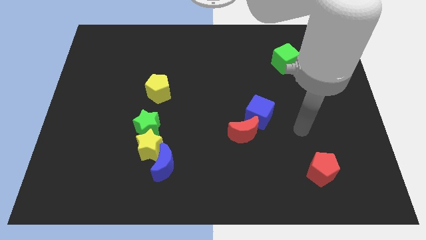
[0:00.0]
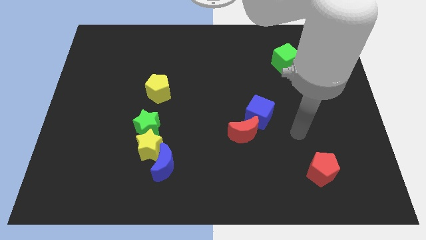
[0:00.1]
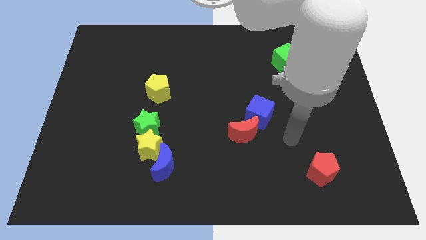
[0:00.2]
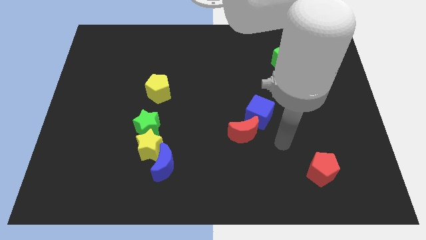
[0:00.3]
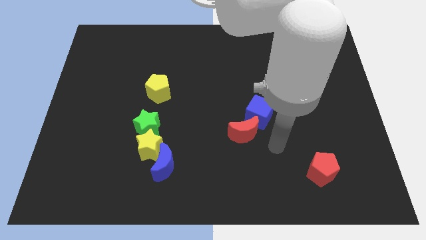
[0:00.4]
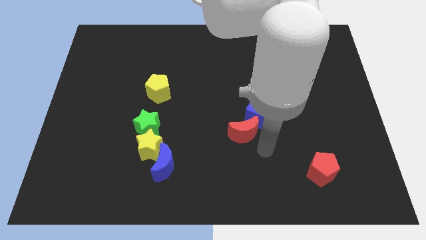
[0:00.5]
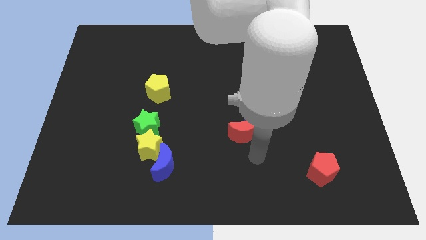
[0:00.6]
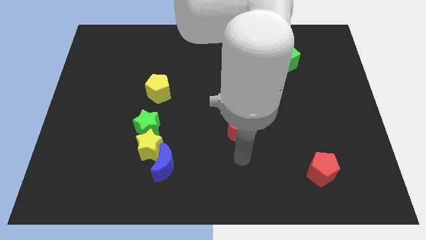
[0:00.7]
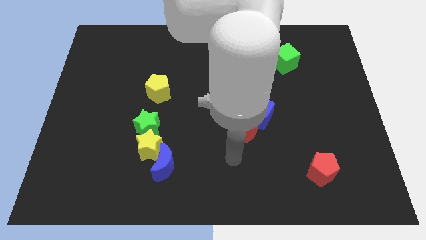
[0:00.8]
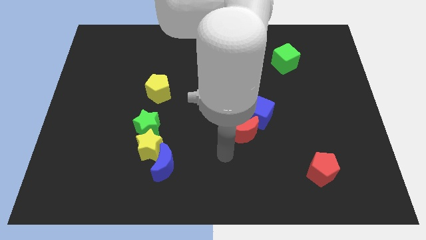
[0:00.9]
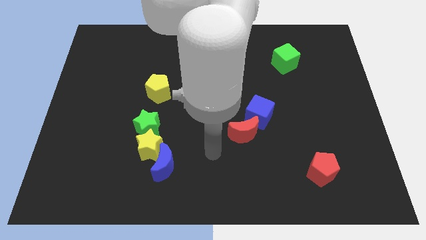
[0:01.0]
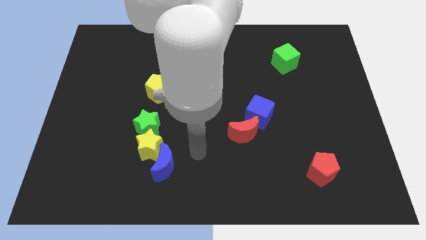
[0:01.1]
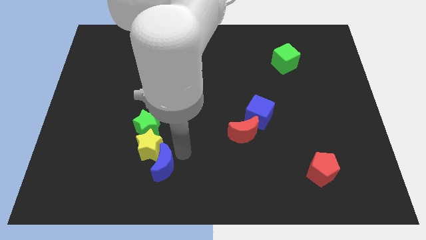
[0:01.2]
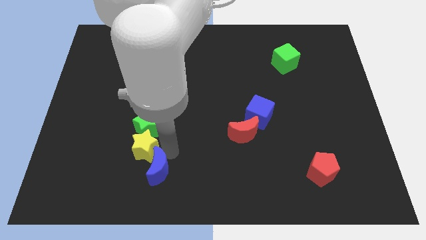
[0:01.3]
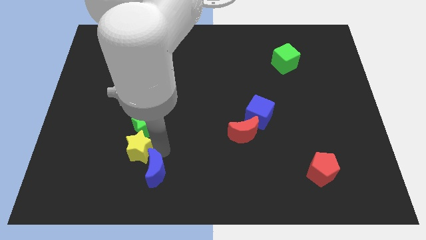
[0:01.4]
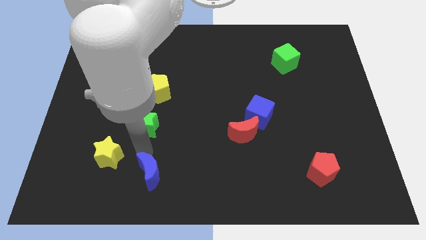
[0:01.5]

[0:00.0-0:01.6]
move the green star away from the yellow star

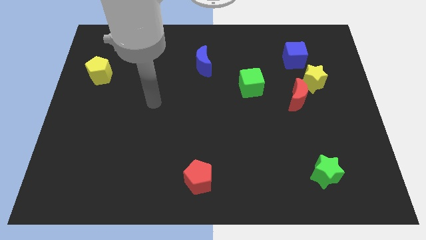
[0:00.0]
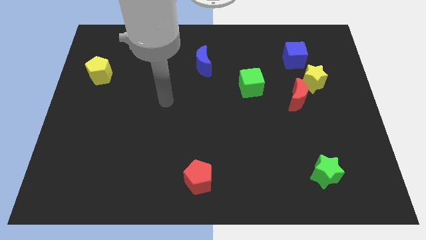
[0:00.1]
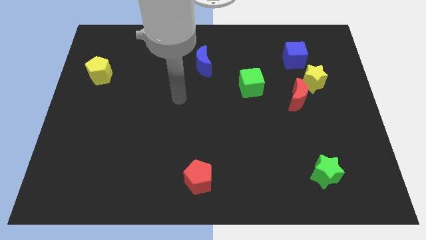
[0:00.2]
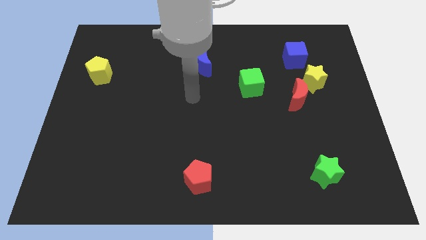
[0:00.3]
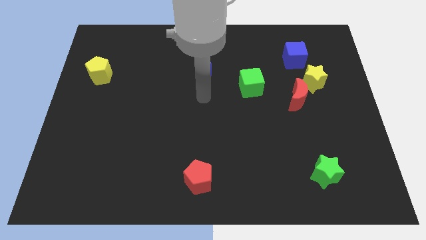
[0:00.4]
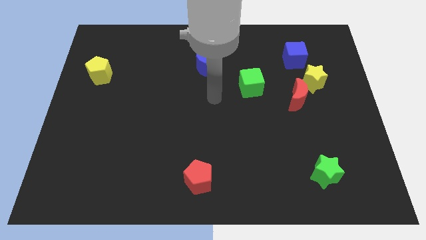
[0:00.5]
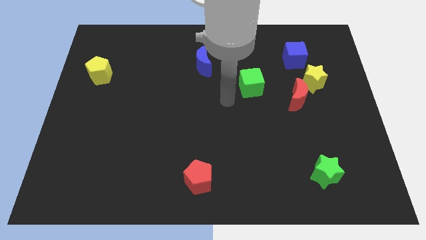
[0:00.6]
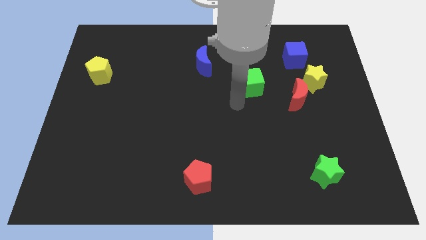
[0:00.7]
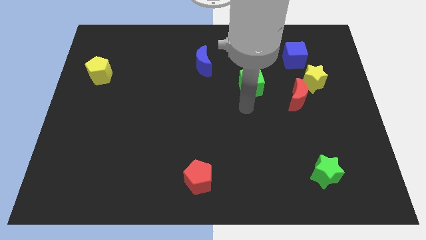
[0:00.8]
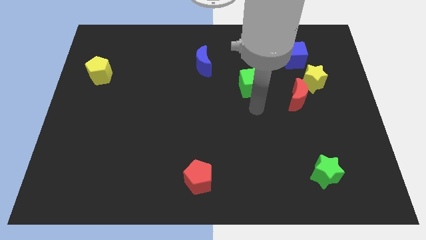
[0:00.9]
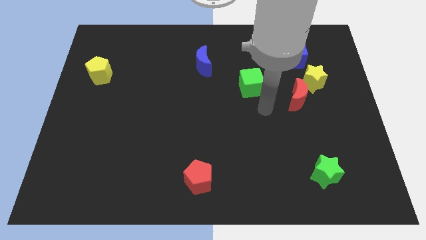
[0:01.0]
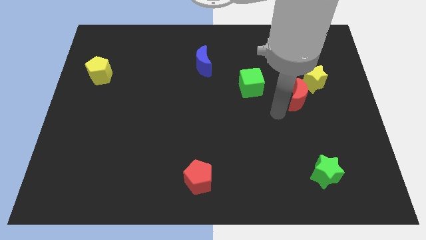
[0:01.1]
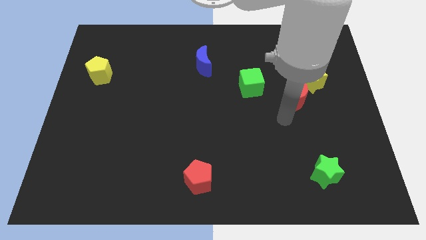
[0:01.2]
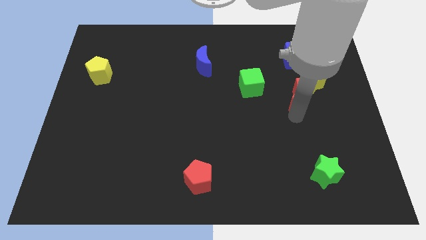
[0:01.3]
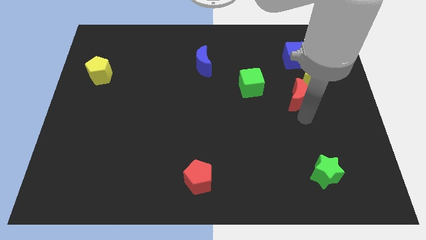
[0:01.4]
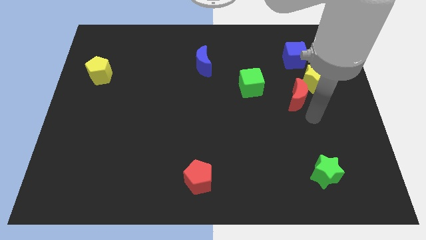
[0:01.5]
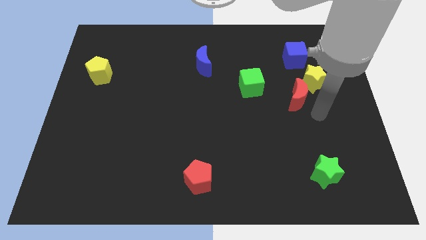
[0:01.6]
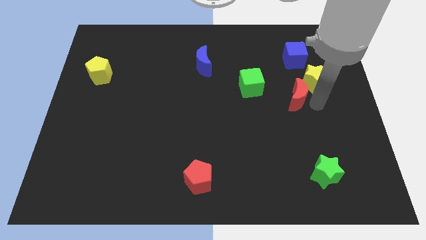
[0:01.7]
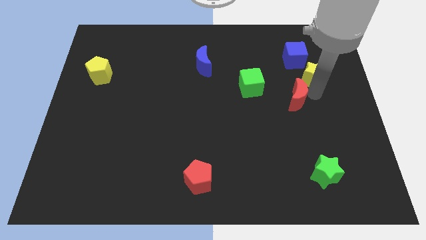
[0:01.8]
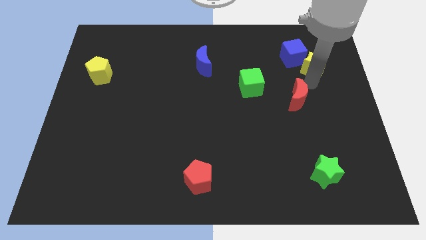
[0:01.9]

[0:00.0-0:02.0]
move the red moon away from the yellow star

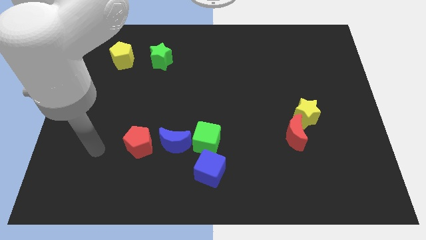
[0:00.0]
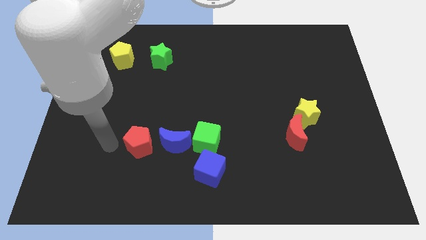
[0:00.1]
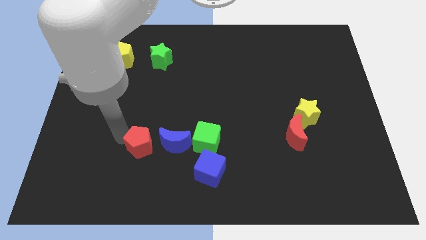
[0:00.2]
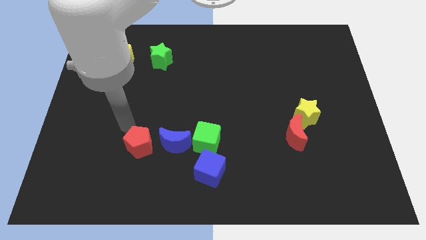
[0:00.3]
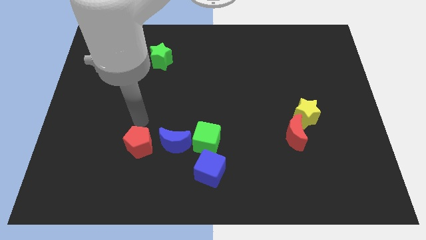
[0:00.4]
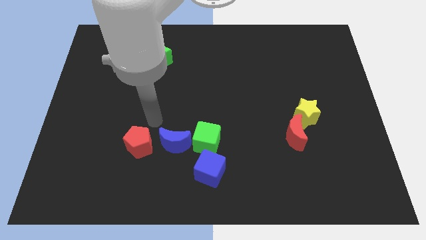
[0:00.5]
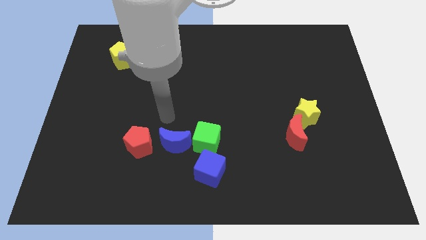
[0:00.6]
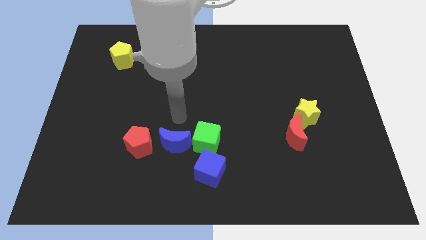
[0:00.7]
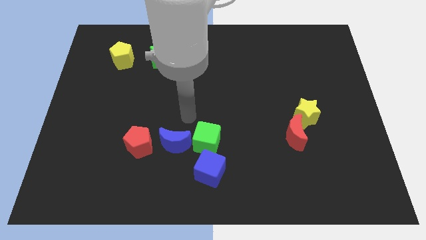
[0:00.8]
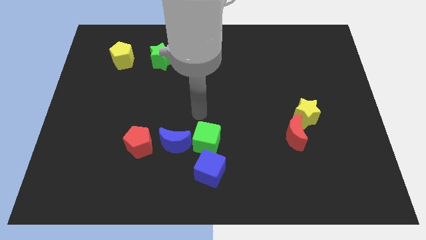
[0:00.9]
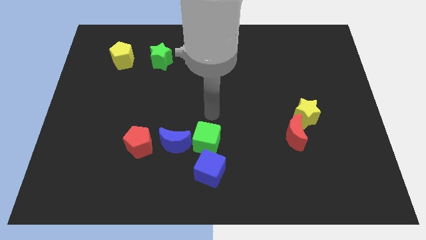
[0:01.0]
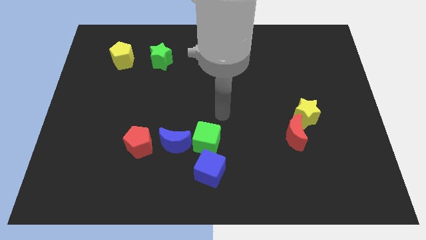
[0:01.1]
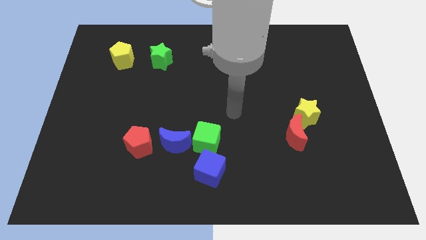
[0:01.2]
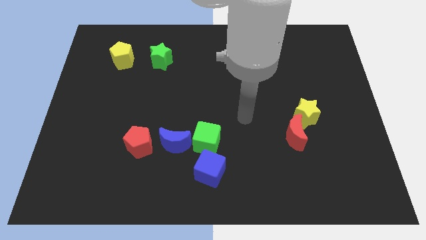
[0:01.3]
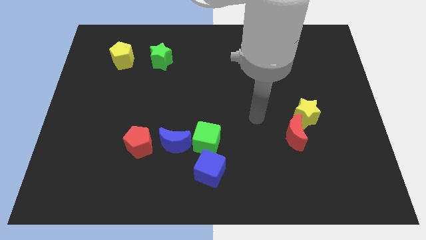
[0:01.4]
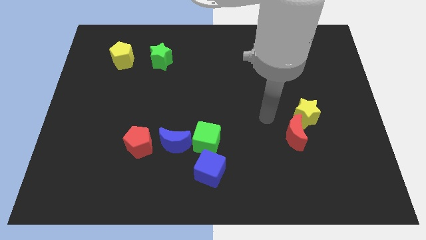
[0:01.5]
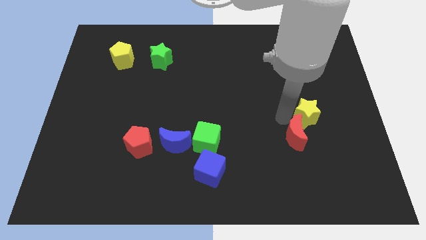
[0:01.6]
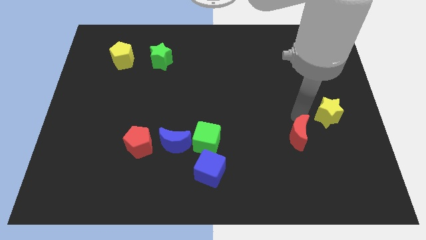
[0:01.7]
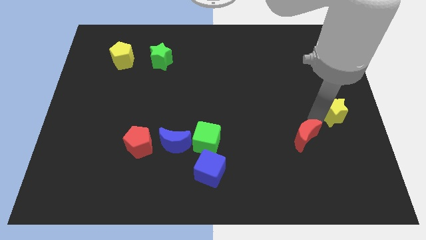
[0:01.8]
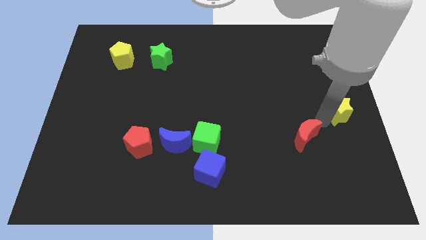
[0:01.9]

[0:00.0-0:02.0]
pull the red moon apart from the yellow star

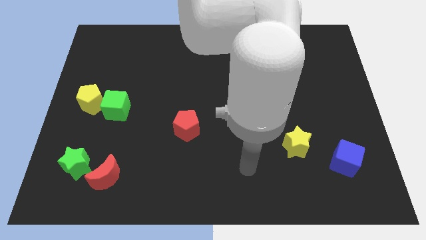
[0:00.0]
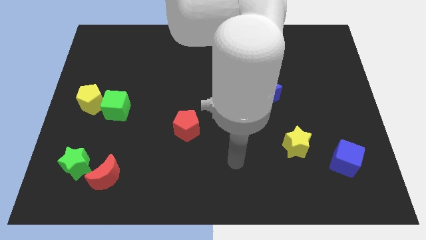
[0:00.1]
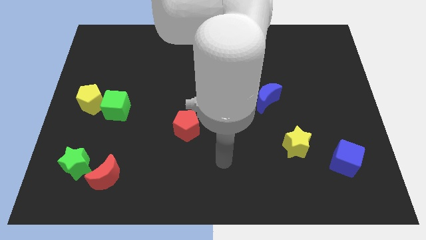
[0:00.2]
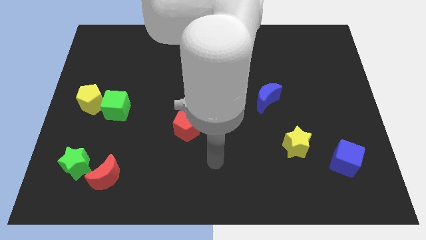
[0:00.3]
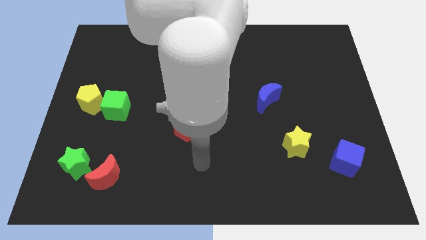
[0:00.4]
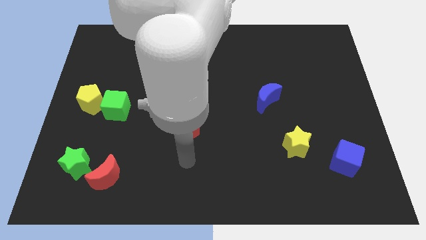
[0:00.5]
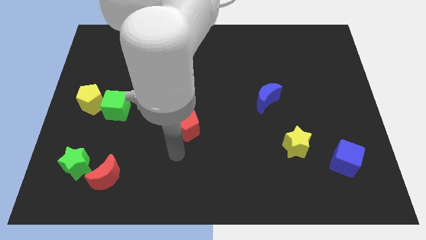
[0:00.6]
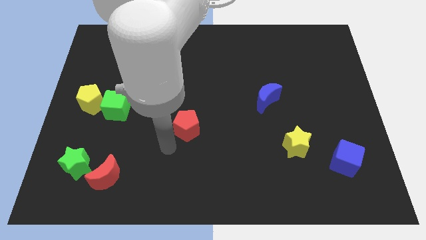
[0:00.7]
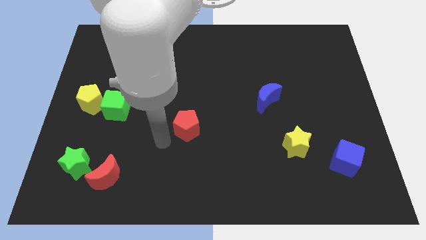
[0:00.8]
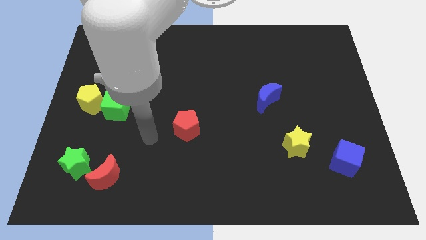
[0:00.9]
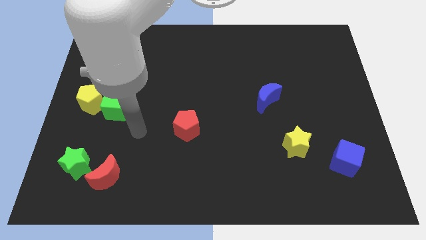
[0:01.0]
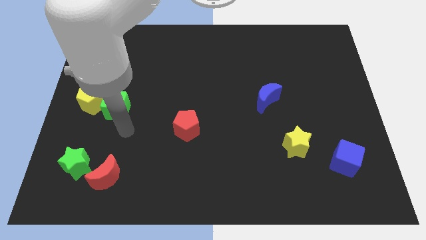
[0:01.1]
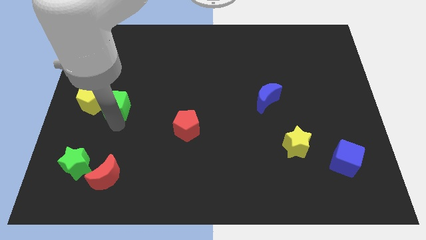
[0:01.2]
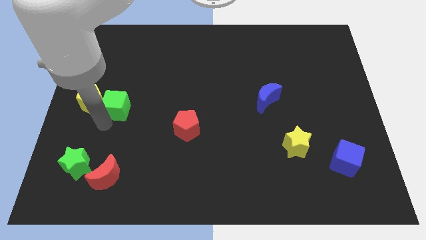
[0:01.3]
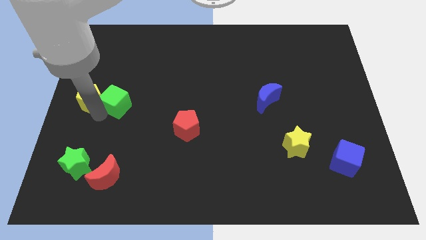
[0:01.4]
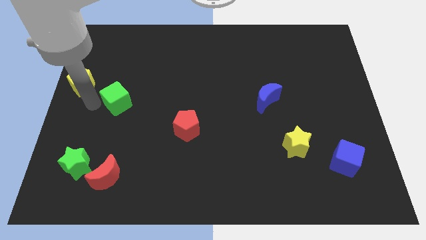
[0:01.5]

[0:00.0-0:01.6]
pull the green cube apart from the yellow pentagon

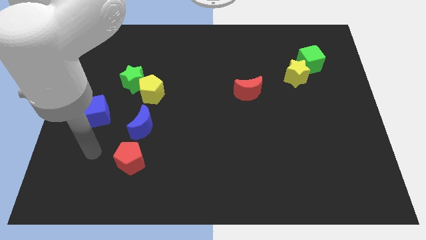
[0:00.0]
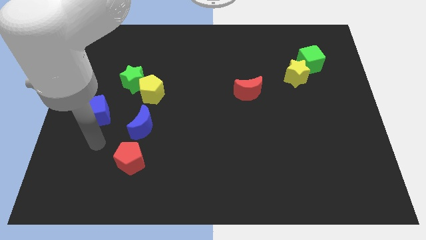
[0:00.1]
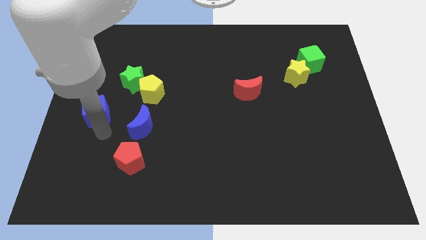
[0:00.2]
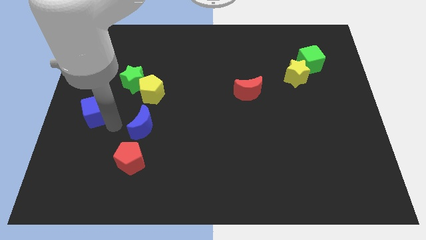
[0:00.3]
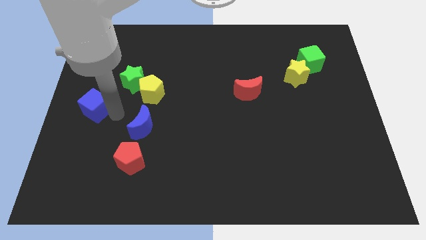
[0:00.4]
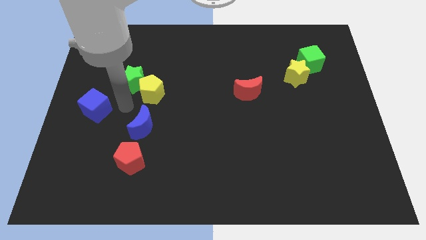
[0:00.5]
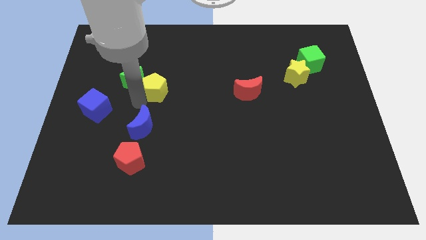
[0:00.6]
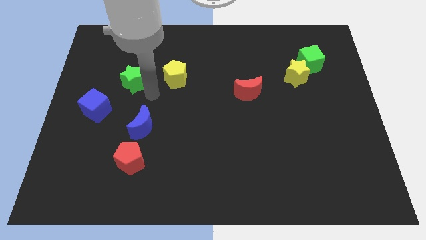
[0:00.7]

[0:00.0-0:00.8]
pull the green star apart from the yellow pentagon

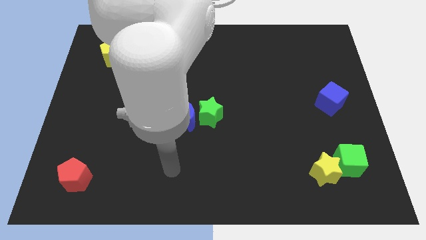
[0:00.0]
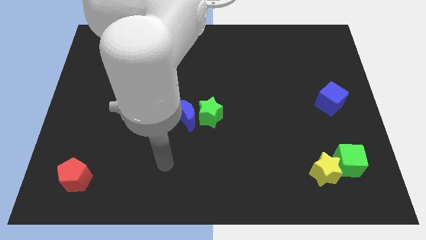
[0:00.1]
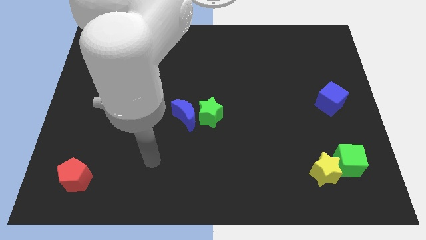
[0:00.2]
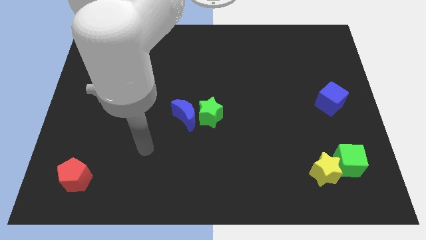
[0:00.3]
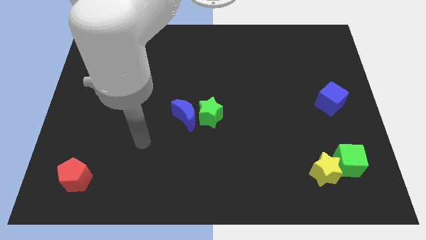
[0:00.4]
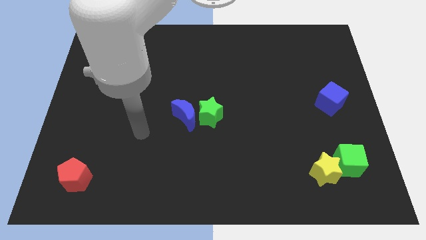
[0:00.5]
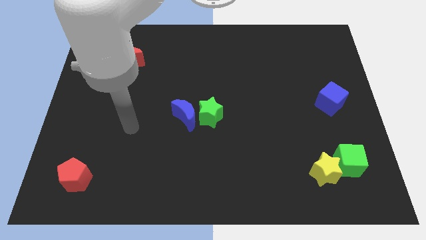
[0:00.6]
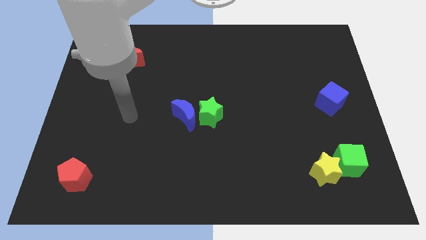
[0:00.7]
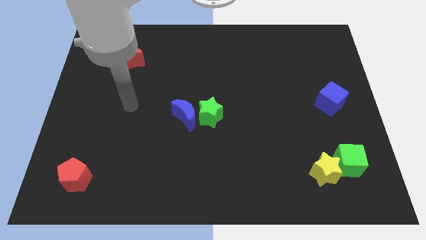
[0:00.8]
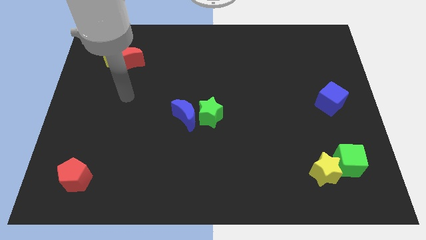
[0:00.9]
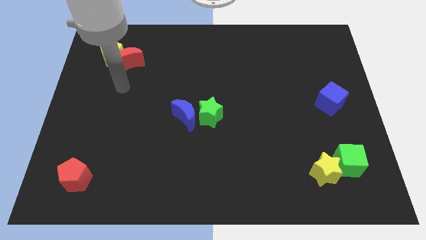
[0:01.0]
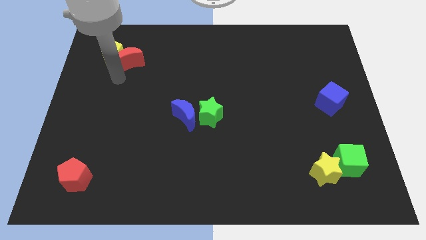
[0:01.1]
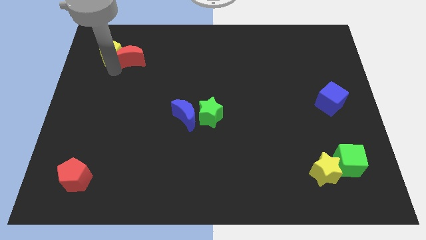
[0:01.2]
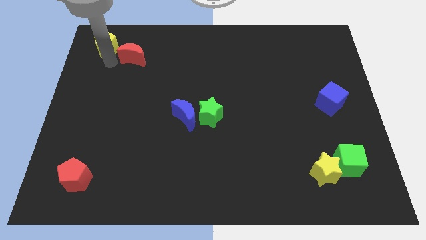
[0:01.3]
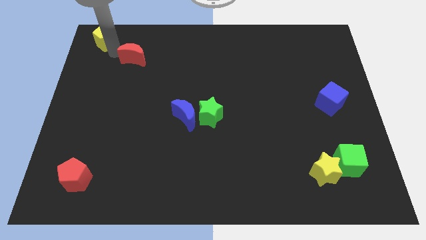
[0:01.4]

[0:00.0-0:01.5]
pull the red moon apart from the yellow pentagon
